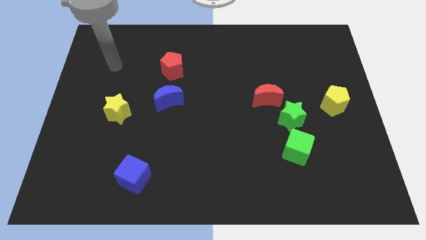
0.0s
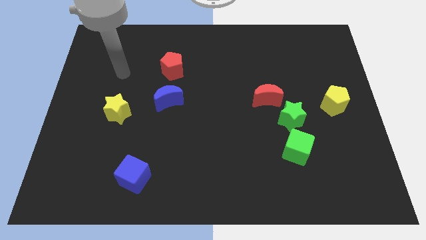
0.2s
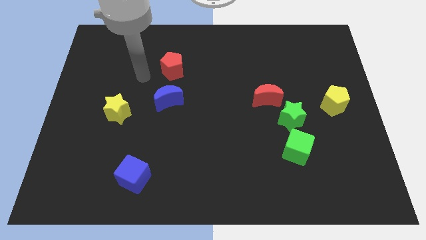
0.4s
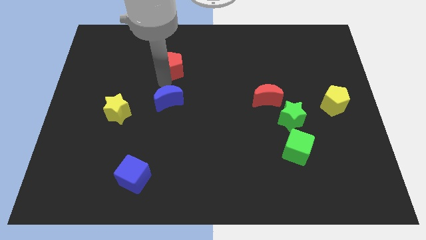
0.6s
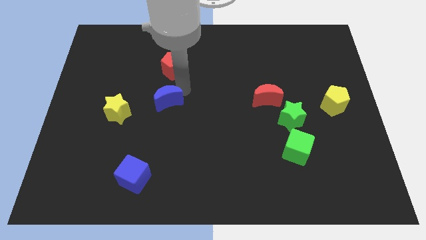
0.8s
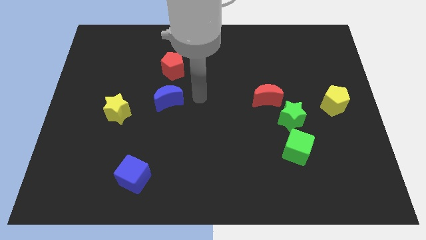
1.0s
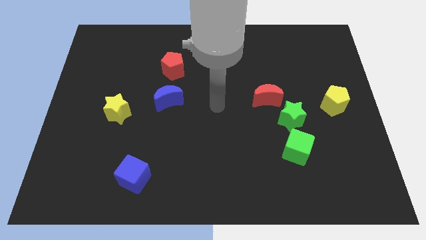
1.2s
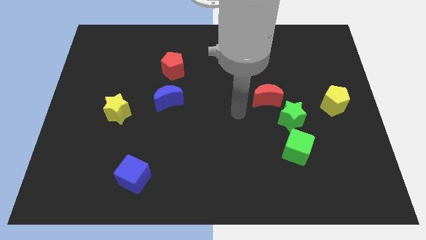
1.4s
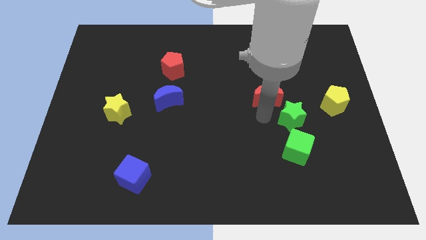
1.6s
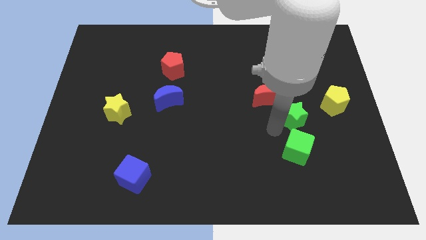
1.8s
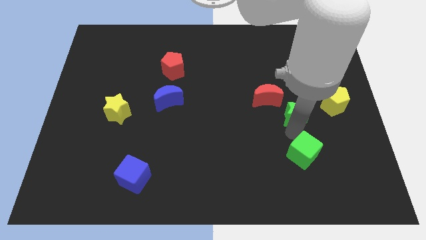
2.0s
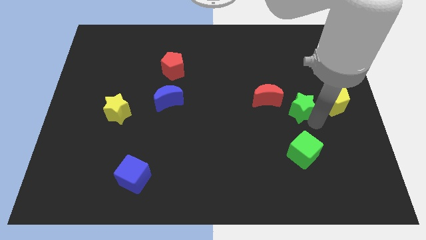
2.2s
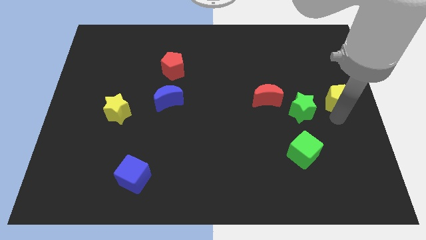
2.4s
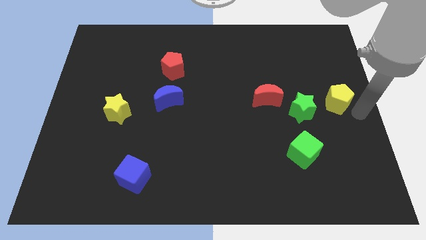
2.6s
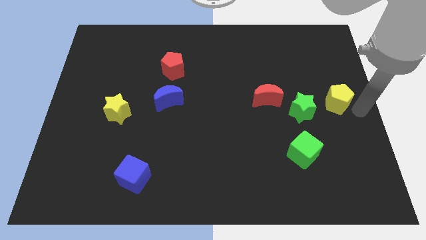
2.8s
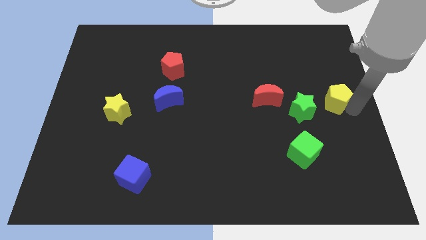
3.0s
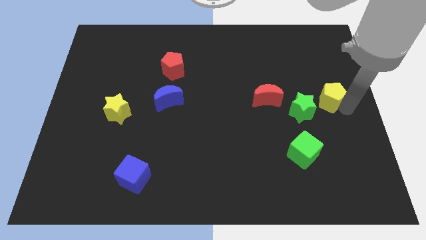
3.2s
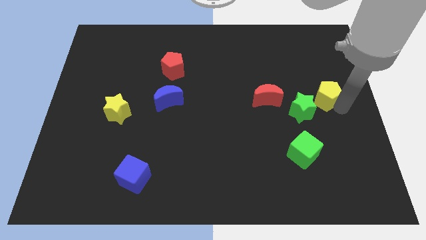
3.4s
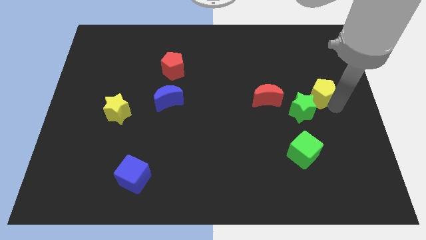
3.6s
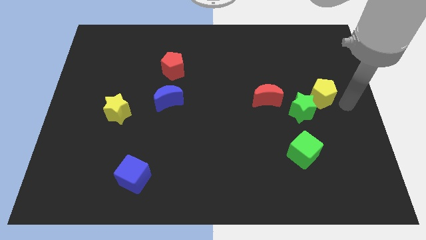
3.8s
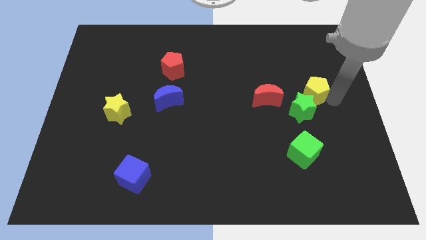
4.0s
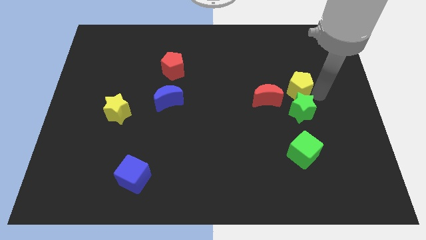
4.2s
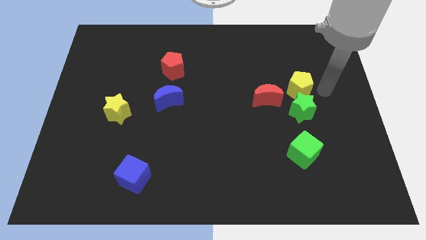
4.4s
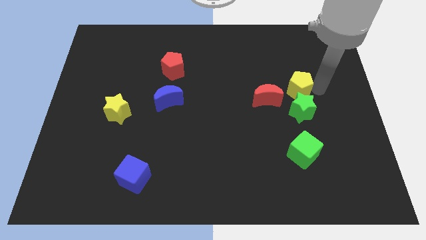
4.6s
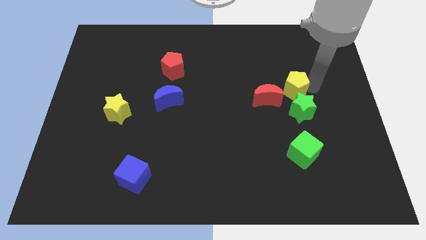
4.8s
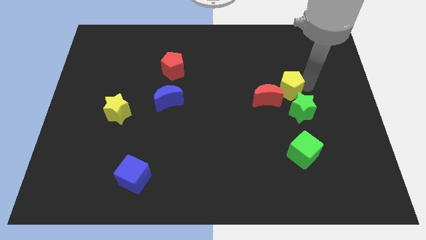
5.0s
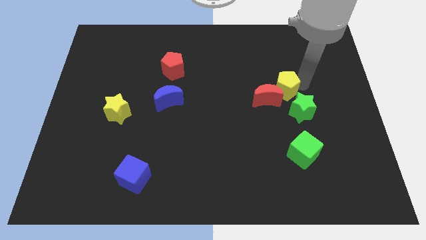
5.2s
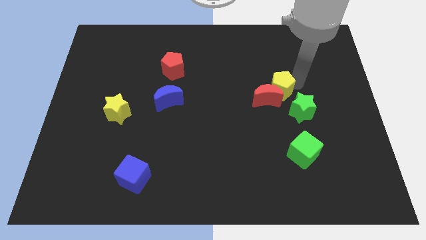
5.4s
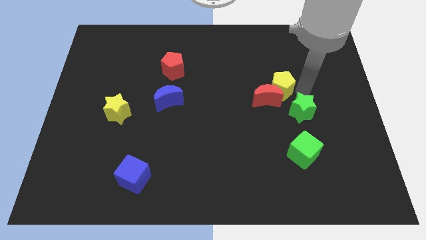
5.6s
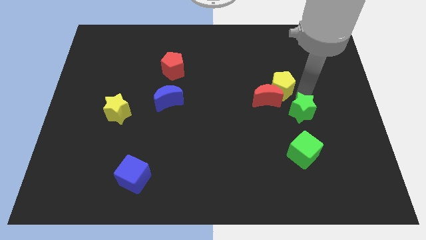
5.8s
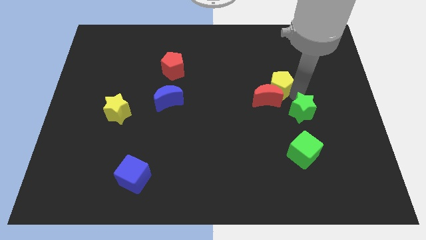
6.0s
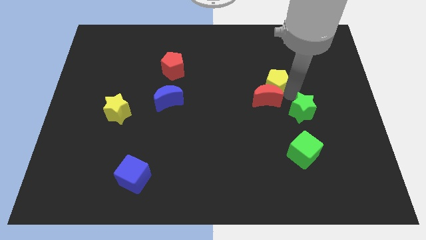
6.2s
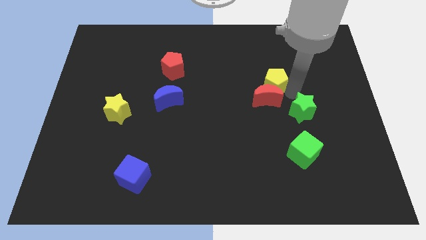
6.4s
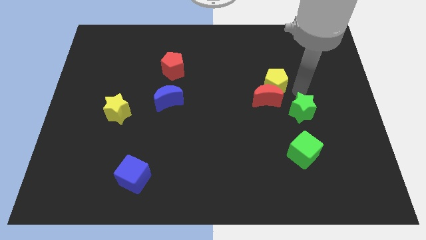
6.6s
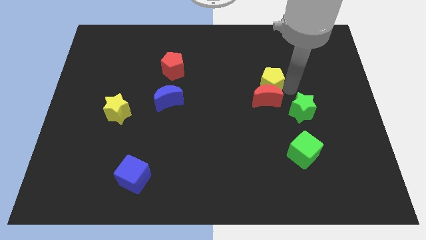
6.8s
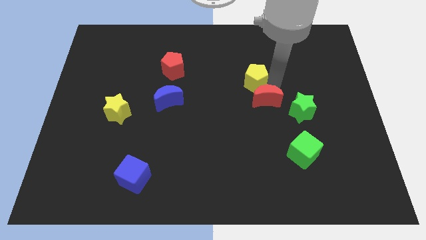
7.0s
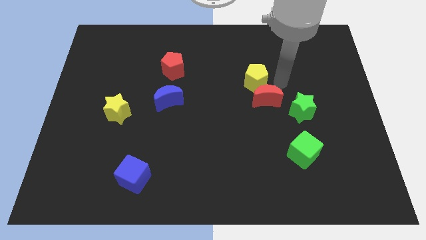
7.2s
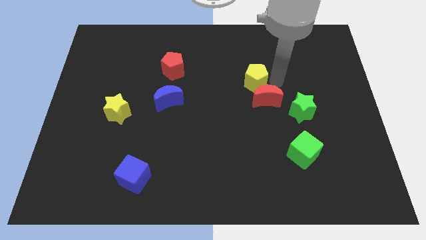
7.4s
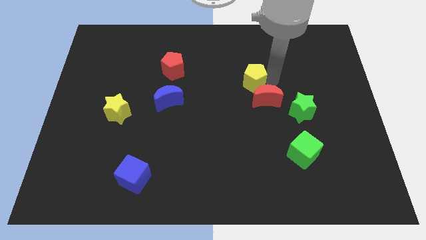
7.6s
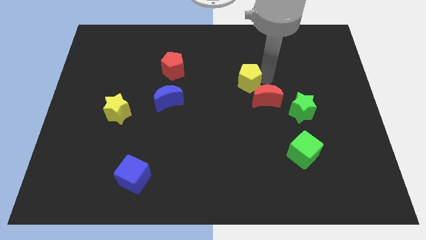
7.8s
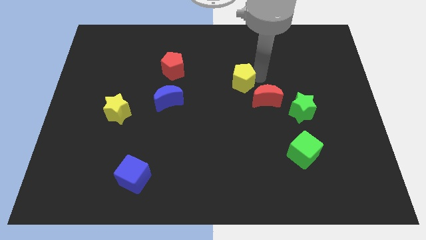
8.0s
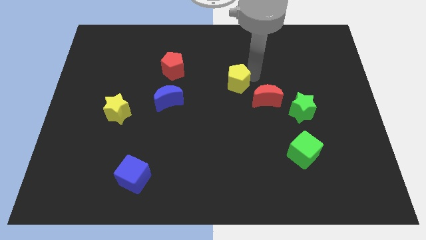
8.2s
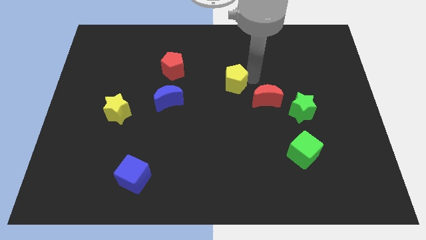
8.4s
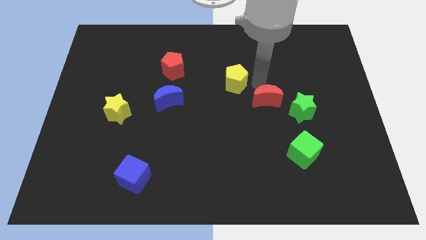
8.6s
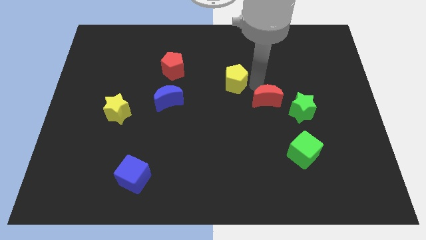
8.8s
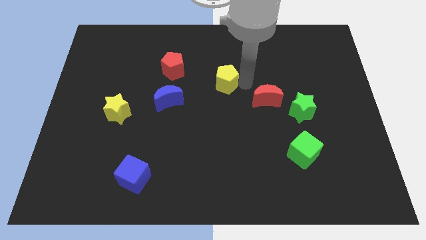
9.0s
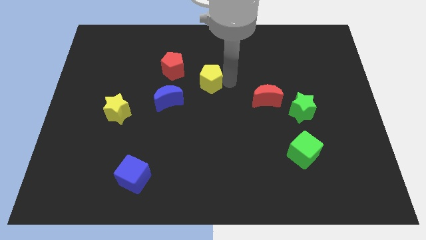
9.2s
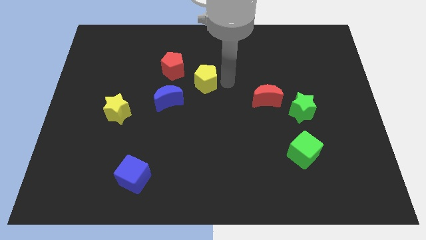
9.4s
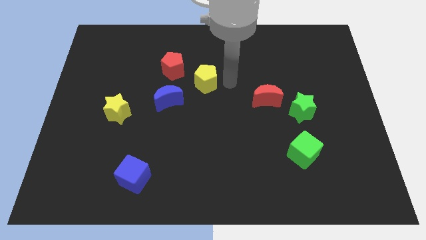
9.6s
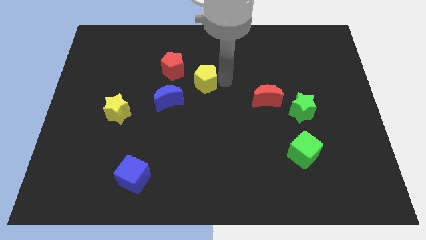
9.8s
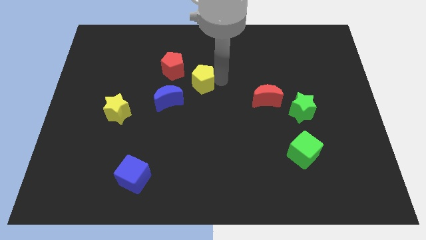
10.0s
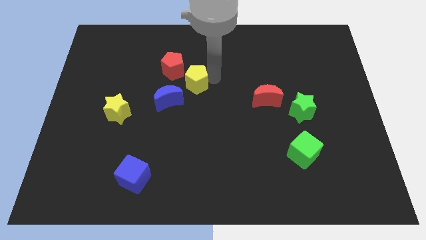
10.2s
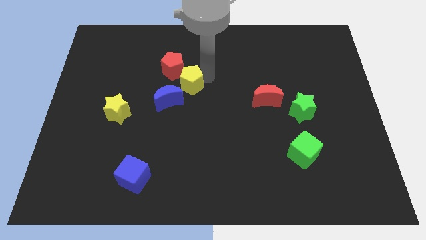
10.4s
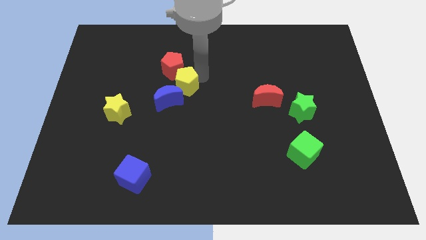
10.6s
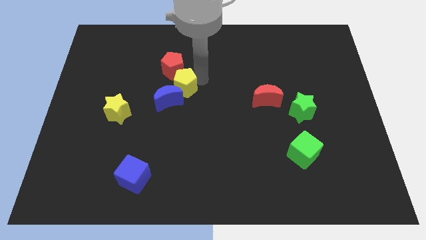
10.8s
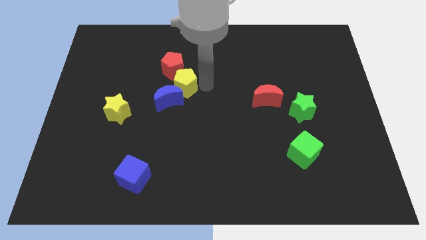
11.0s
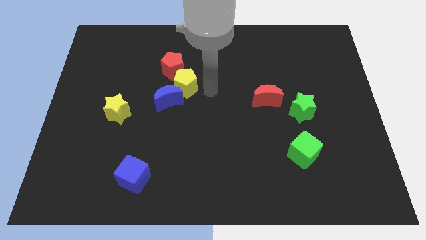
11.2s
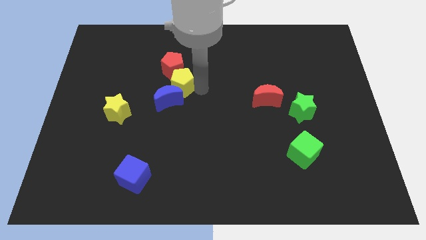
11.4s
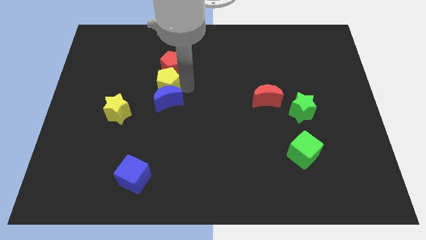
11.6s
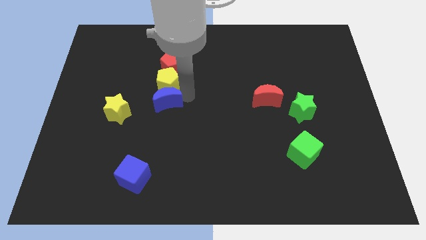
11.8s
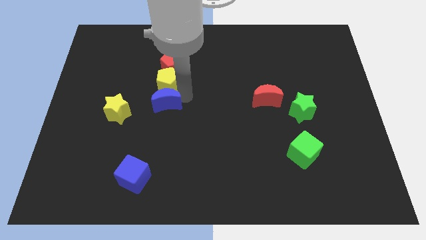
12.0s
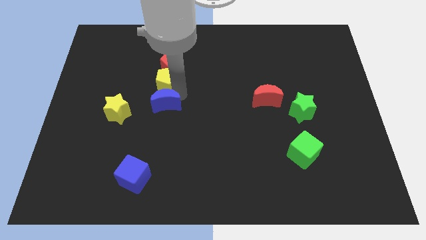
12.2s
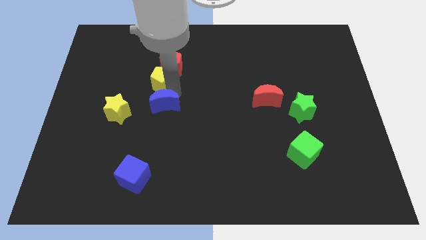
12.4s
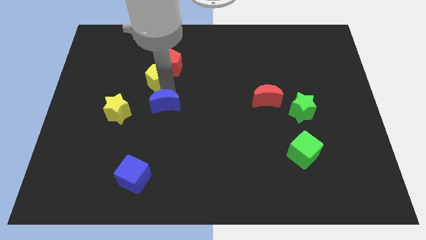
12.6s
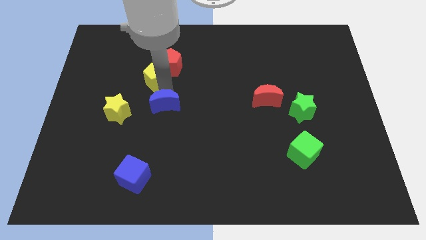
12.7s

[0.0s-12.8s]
put the yellow pentagon just left of the red pentagon
